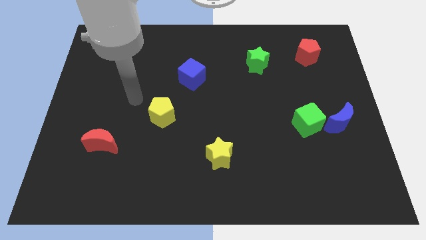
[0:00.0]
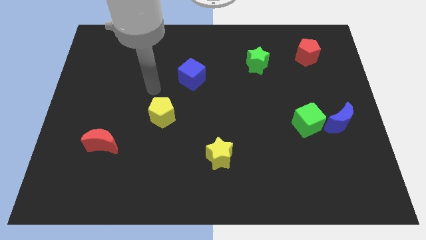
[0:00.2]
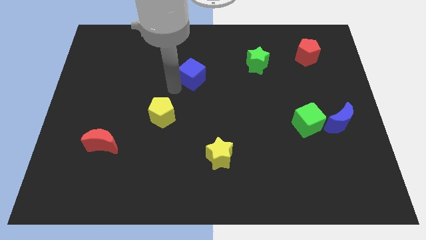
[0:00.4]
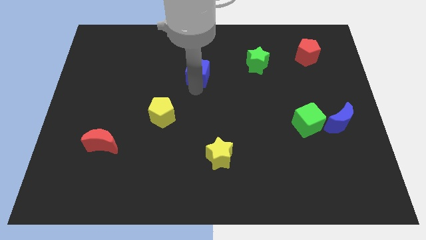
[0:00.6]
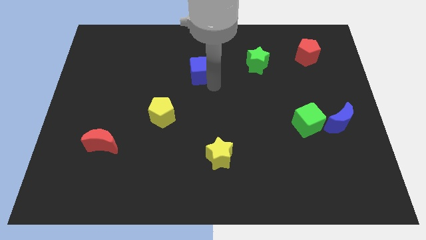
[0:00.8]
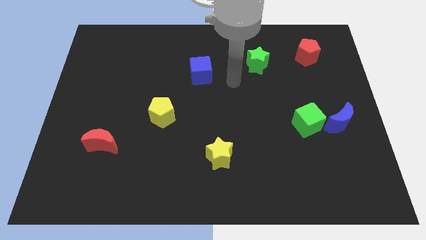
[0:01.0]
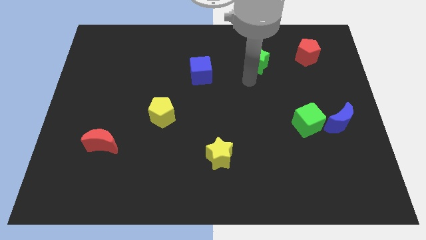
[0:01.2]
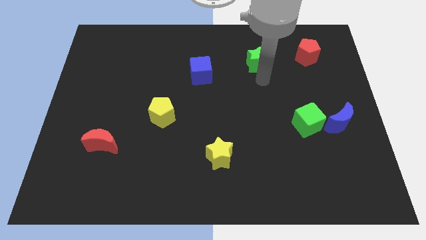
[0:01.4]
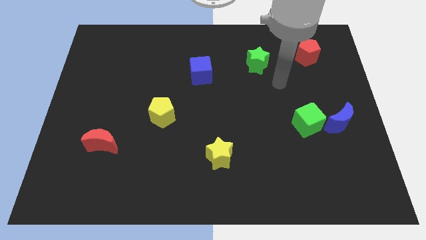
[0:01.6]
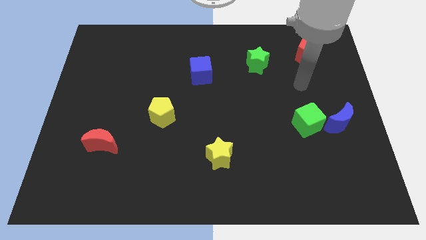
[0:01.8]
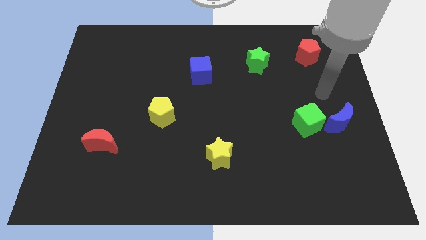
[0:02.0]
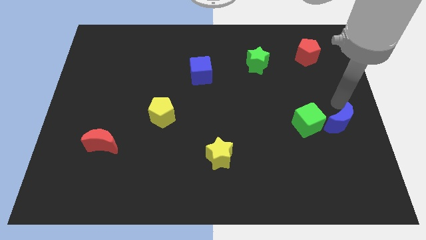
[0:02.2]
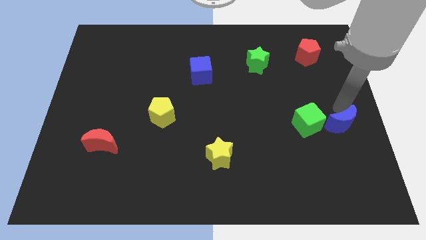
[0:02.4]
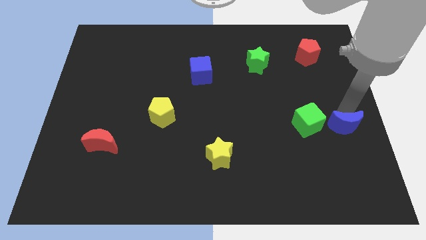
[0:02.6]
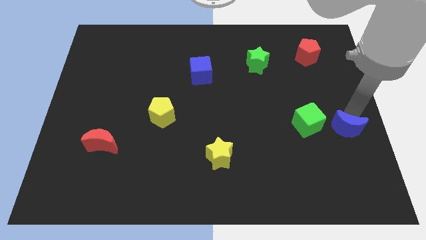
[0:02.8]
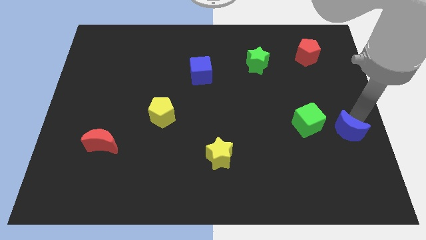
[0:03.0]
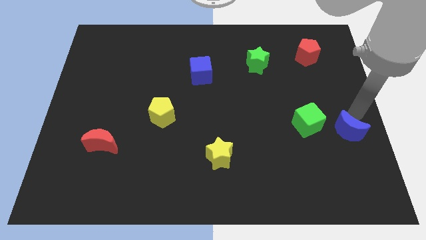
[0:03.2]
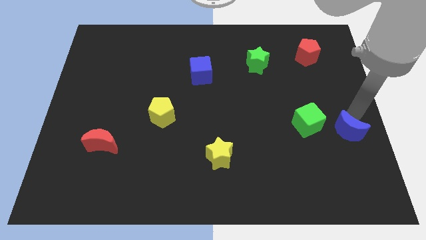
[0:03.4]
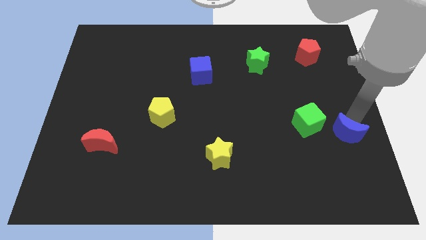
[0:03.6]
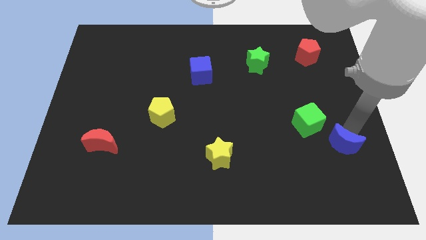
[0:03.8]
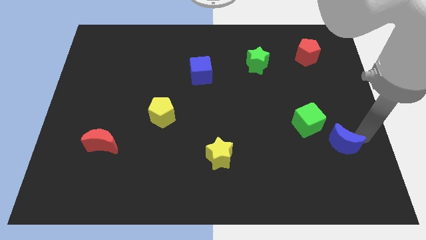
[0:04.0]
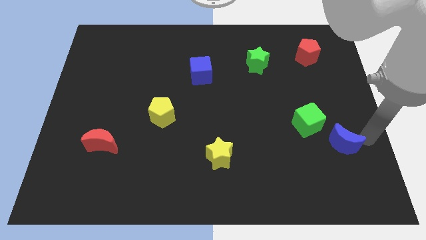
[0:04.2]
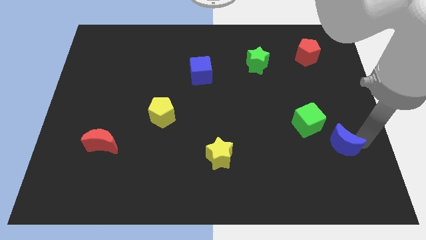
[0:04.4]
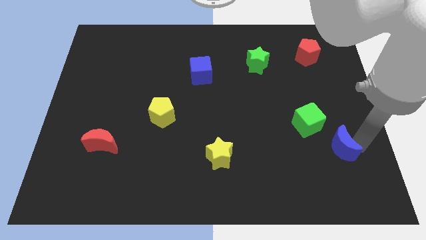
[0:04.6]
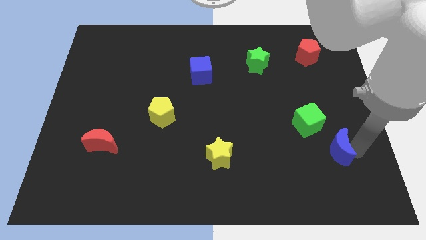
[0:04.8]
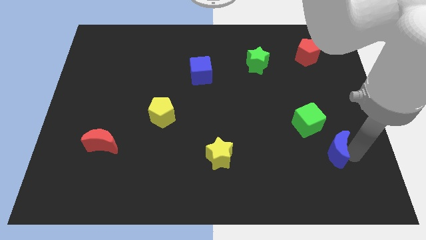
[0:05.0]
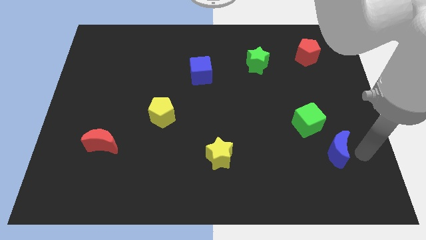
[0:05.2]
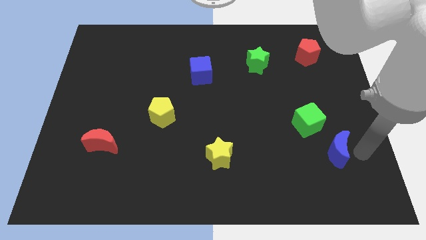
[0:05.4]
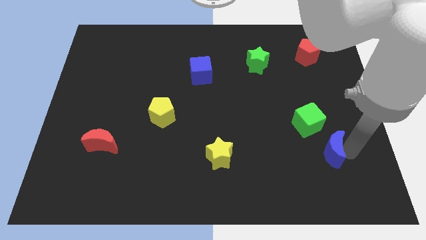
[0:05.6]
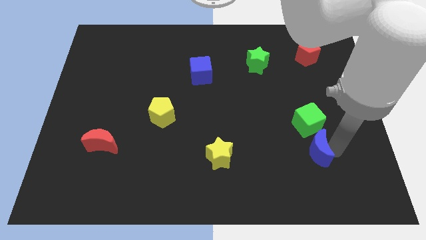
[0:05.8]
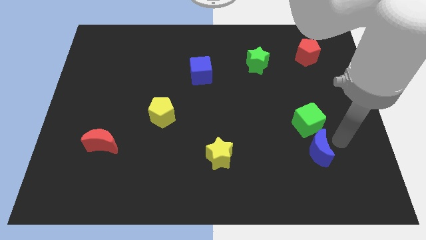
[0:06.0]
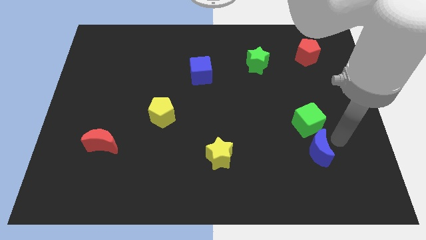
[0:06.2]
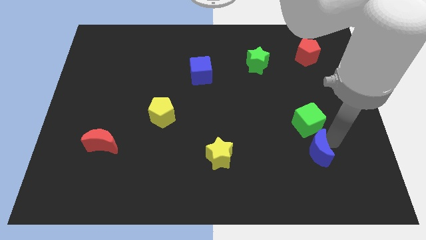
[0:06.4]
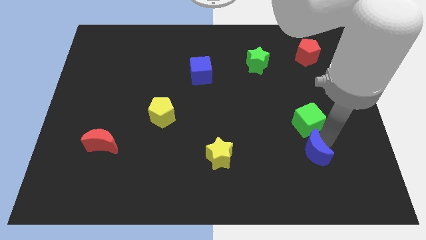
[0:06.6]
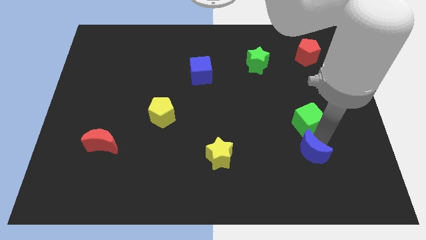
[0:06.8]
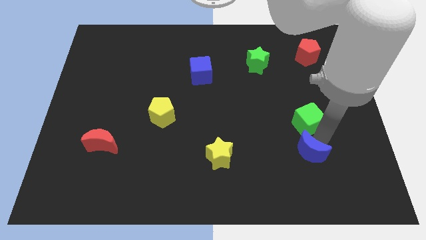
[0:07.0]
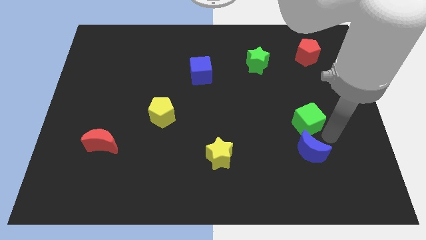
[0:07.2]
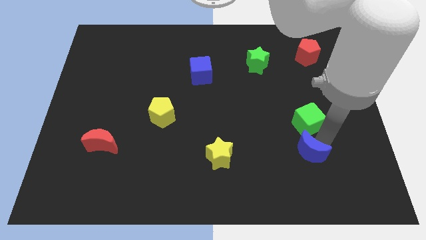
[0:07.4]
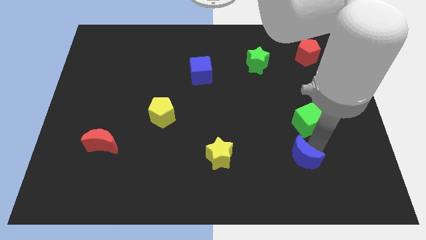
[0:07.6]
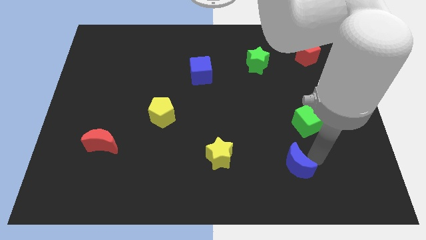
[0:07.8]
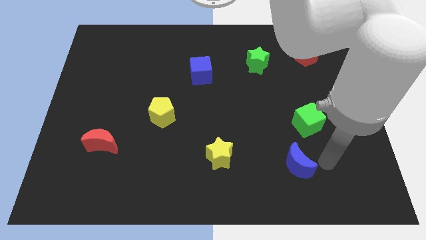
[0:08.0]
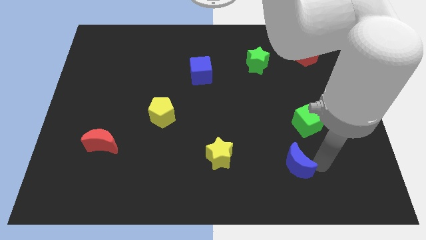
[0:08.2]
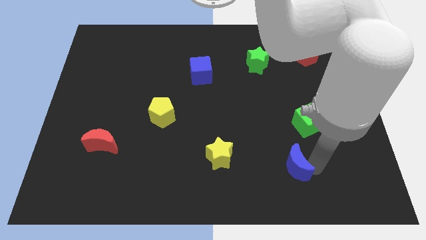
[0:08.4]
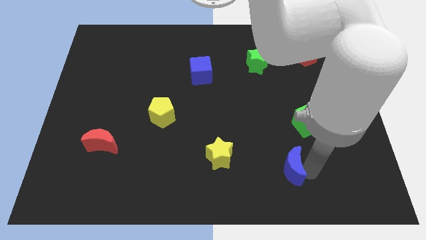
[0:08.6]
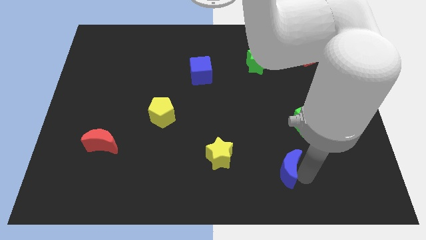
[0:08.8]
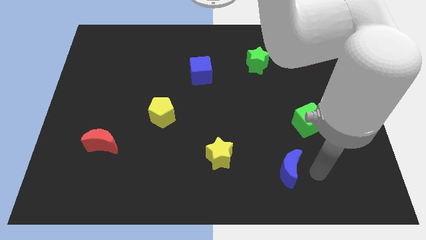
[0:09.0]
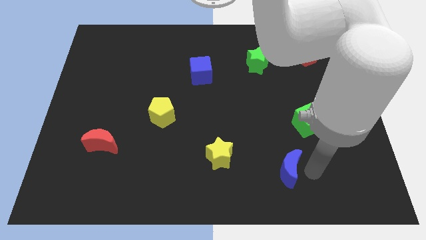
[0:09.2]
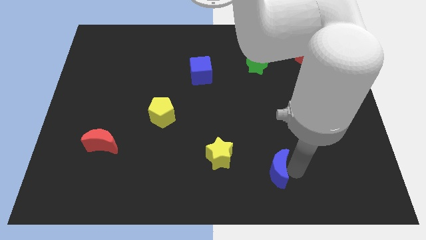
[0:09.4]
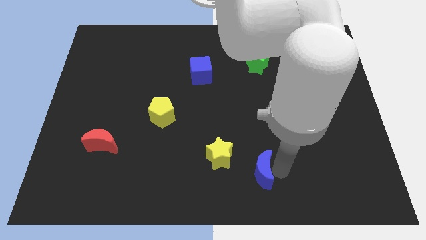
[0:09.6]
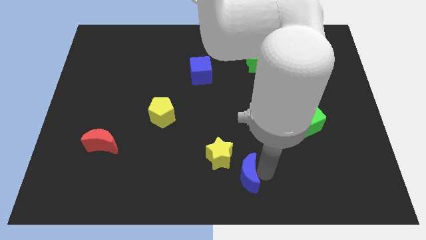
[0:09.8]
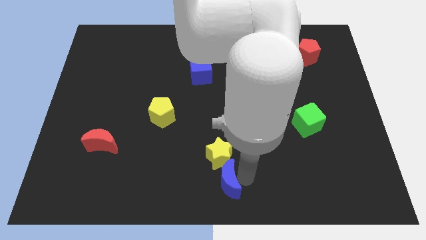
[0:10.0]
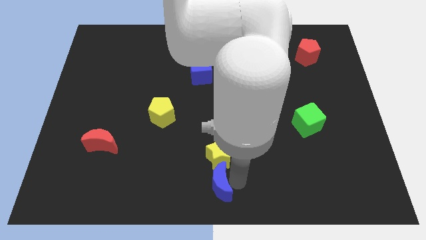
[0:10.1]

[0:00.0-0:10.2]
put the blue moon to the bottom left side of the yellow star

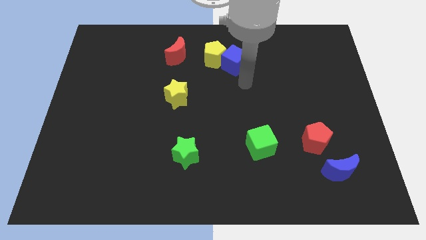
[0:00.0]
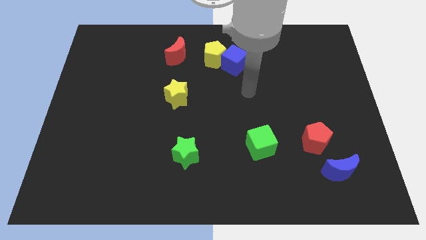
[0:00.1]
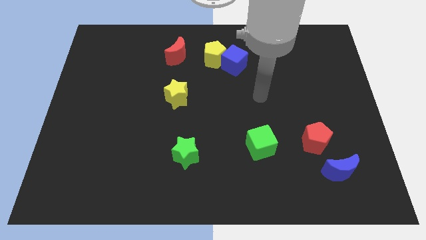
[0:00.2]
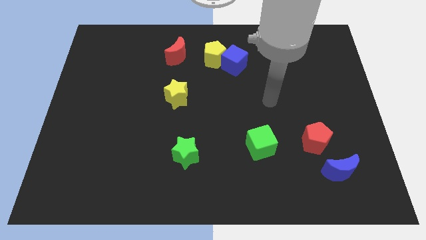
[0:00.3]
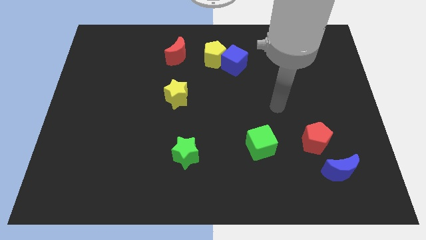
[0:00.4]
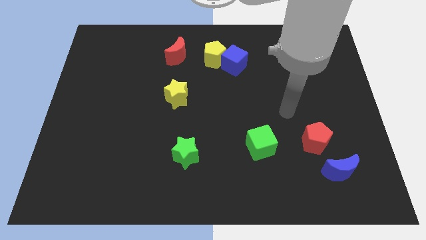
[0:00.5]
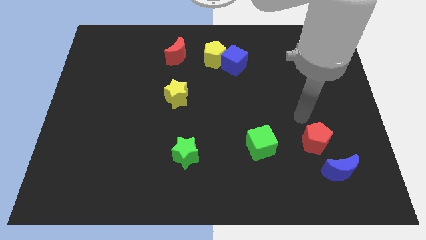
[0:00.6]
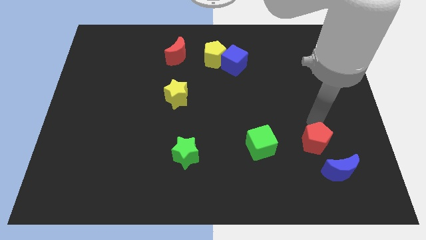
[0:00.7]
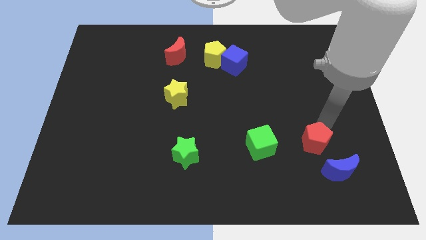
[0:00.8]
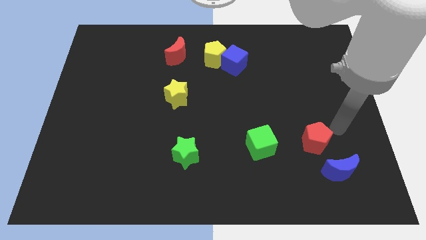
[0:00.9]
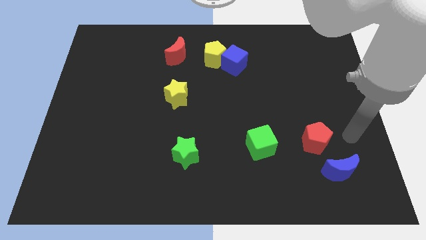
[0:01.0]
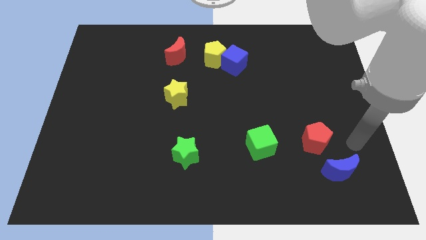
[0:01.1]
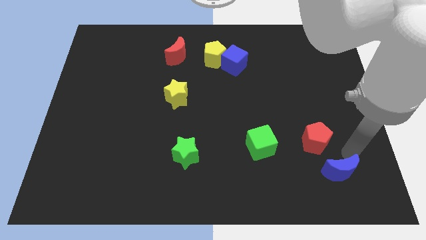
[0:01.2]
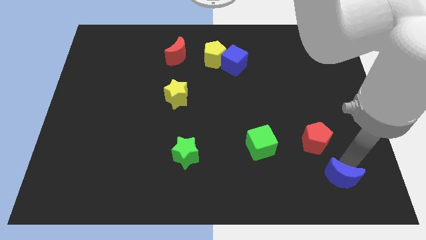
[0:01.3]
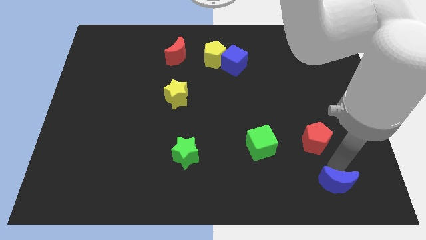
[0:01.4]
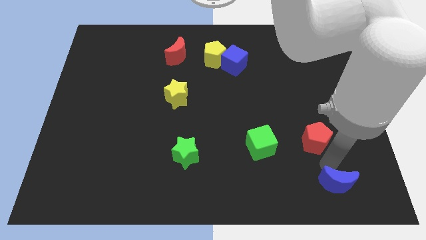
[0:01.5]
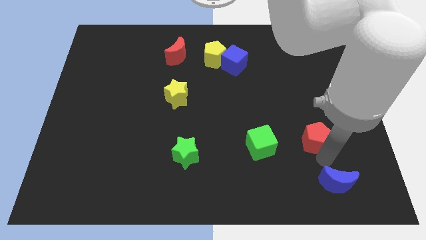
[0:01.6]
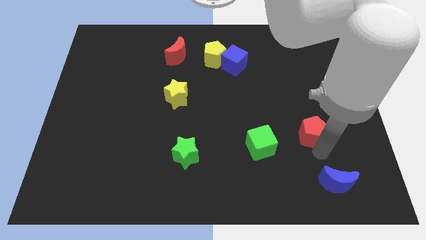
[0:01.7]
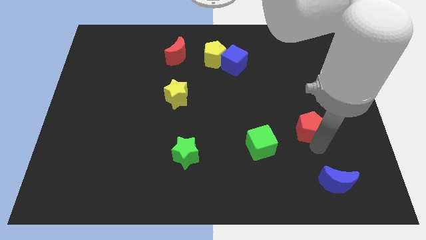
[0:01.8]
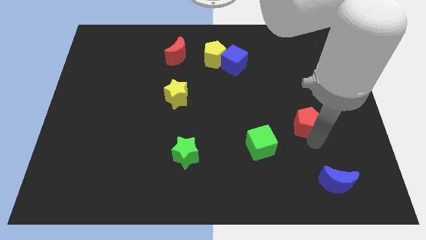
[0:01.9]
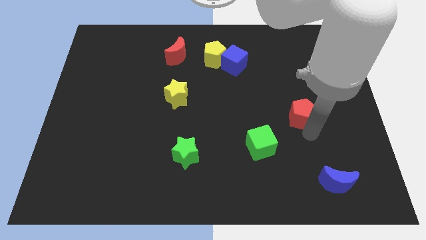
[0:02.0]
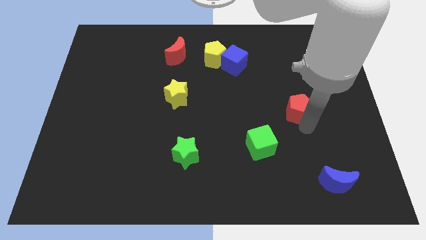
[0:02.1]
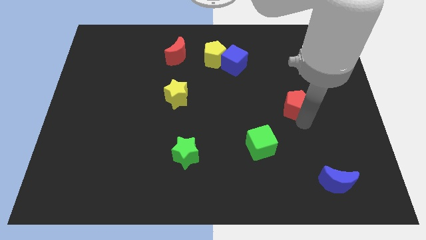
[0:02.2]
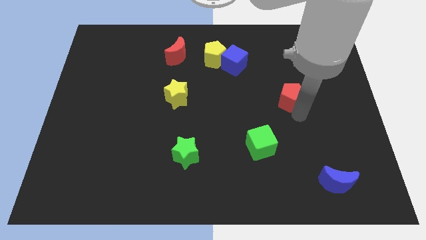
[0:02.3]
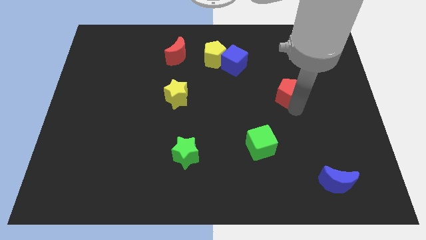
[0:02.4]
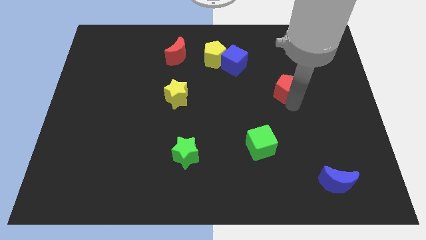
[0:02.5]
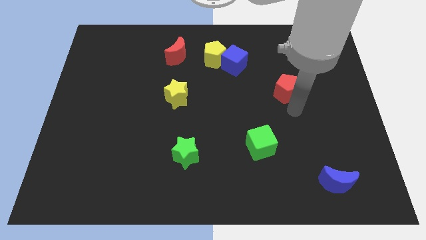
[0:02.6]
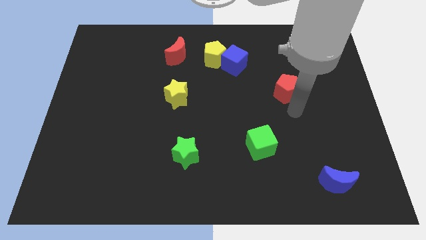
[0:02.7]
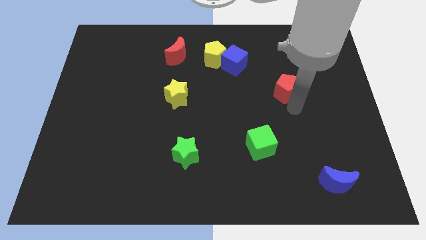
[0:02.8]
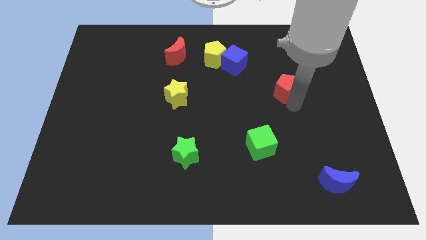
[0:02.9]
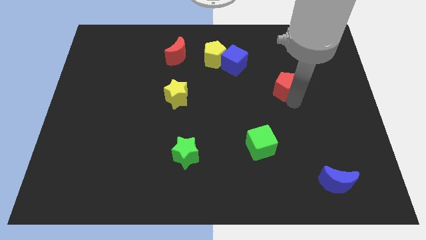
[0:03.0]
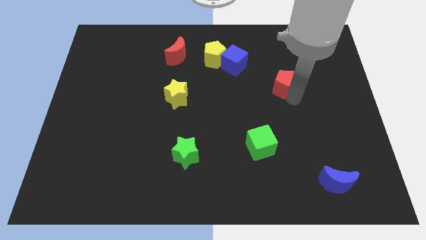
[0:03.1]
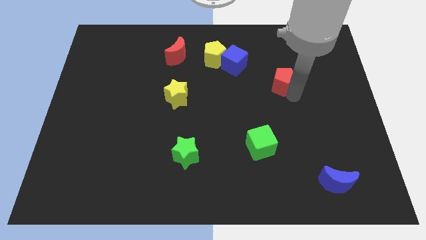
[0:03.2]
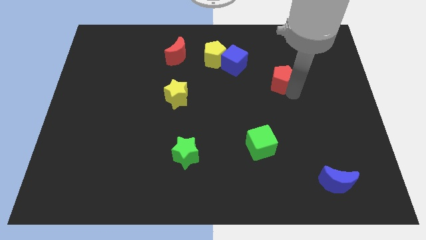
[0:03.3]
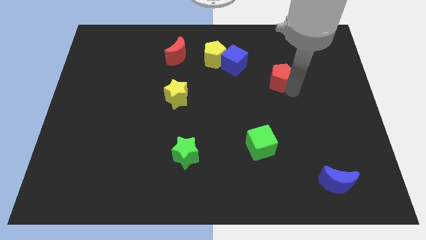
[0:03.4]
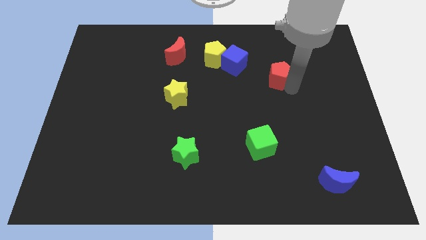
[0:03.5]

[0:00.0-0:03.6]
move the red pentagon to the right side of the blue cube
